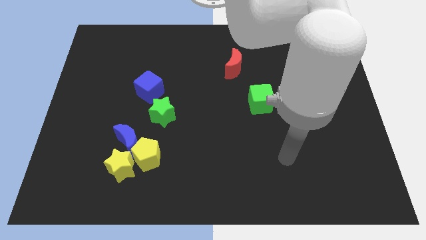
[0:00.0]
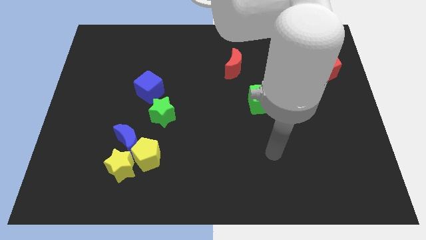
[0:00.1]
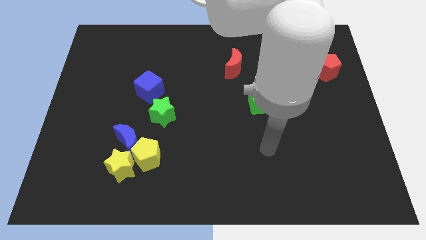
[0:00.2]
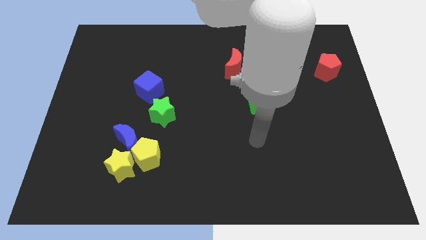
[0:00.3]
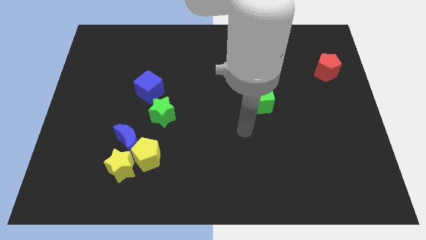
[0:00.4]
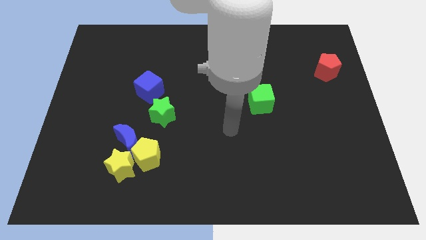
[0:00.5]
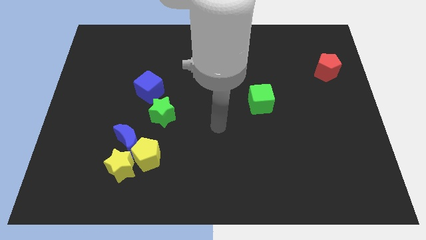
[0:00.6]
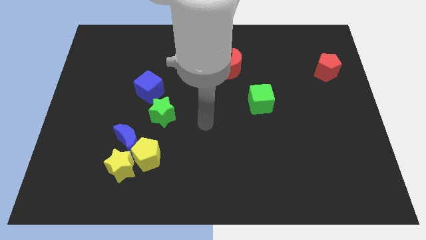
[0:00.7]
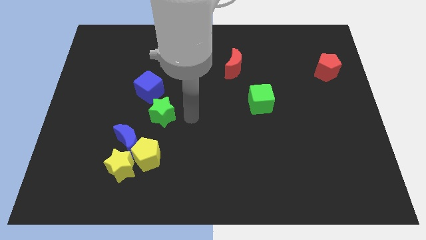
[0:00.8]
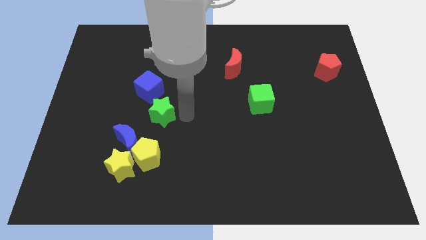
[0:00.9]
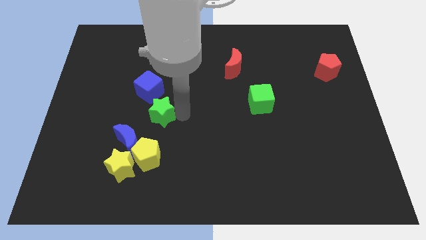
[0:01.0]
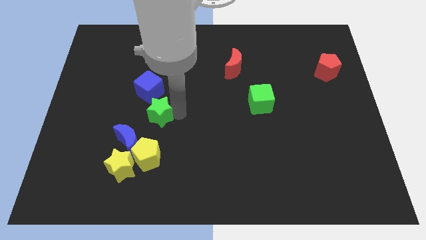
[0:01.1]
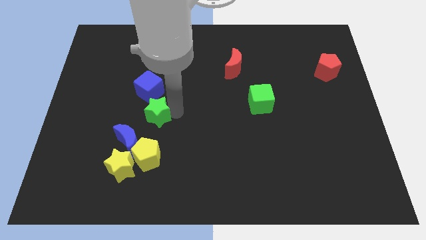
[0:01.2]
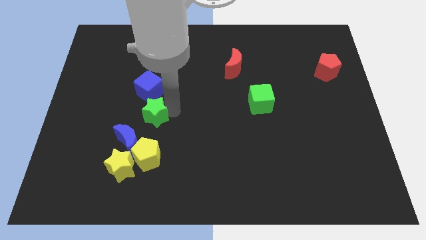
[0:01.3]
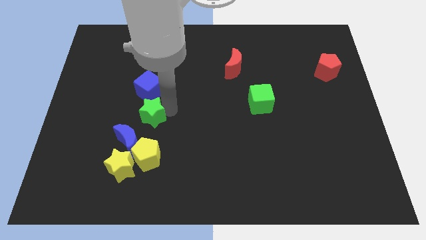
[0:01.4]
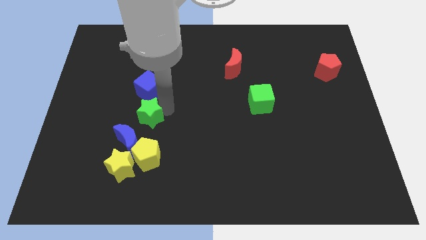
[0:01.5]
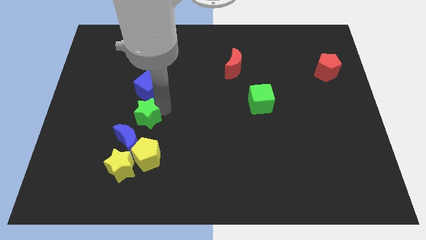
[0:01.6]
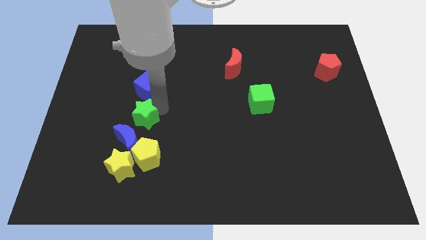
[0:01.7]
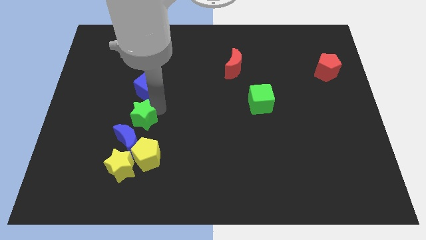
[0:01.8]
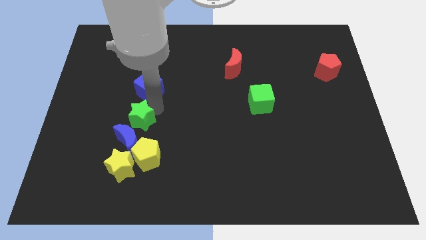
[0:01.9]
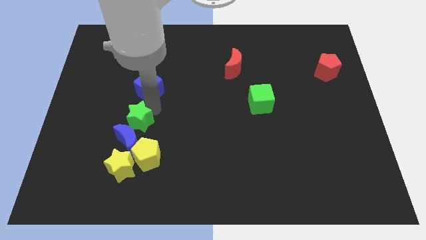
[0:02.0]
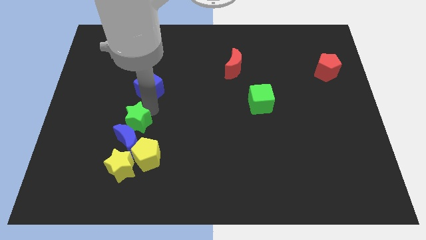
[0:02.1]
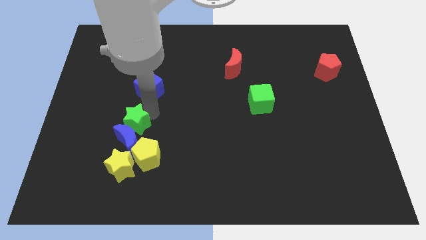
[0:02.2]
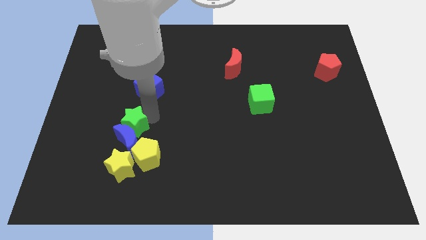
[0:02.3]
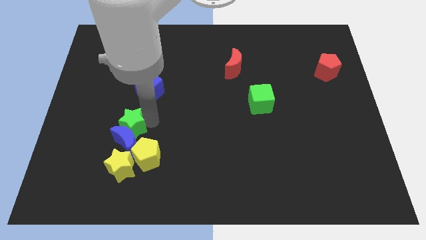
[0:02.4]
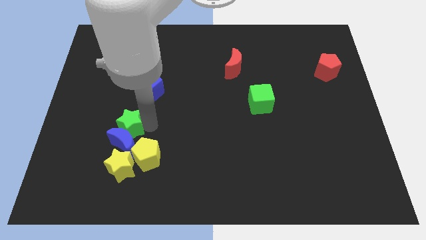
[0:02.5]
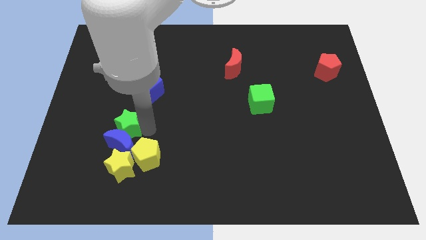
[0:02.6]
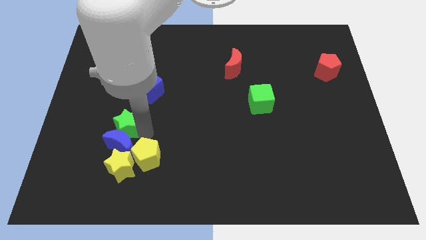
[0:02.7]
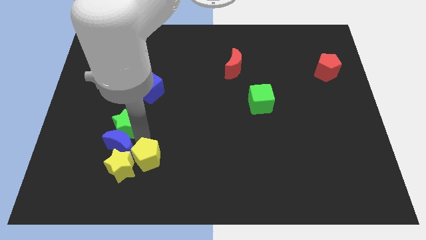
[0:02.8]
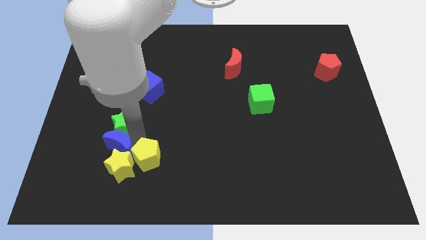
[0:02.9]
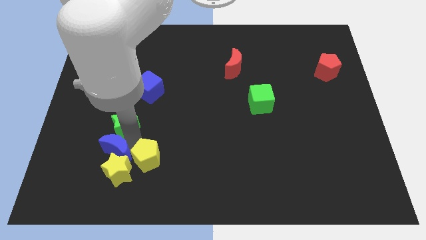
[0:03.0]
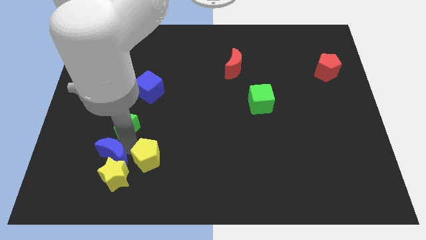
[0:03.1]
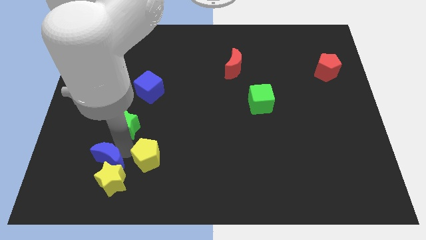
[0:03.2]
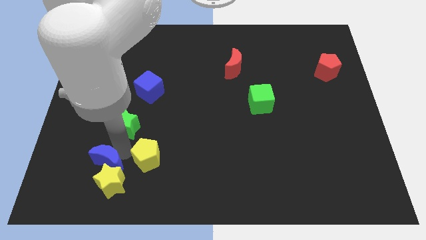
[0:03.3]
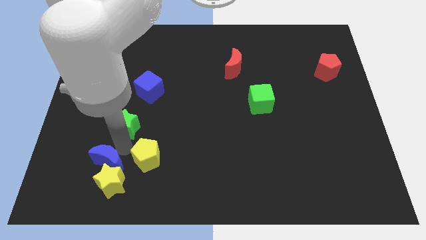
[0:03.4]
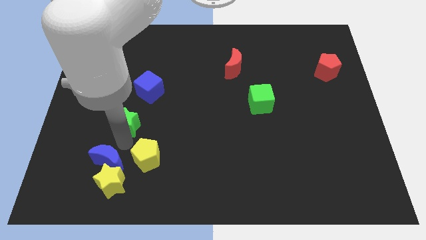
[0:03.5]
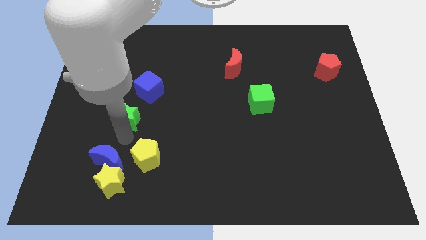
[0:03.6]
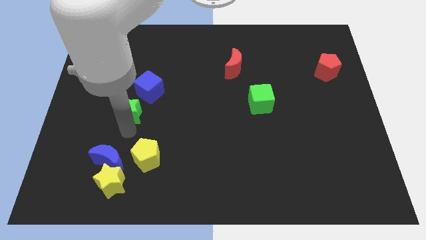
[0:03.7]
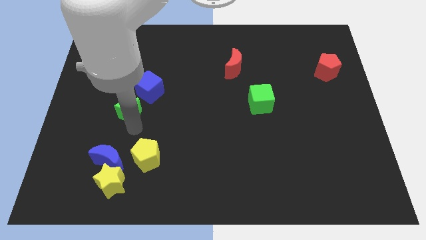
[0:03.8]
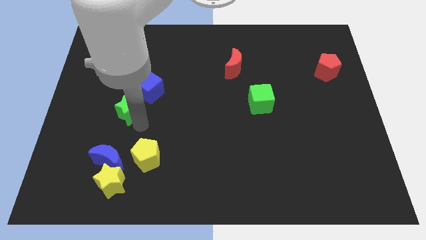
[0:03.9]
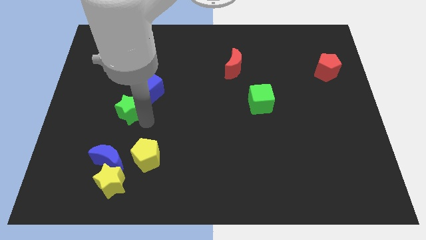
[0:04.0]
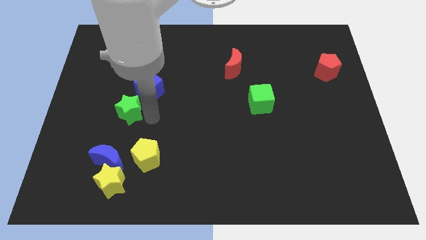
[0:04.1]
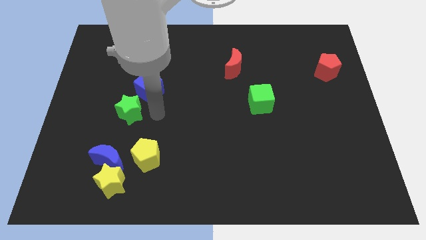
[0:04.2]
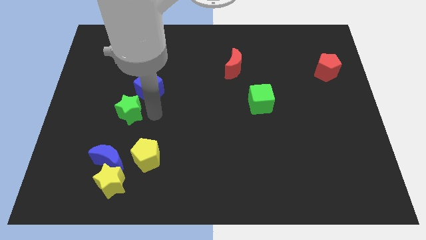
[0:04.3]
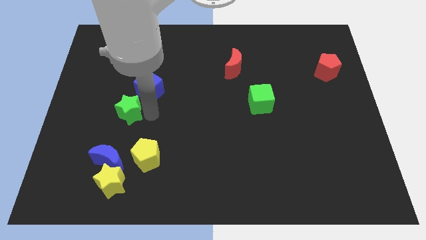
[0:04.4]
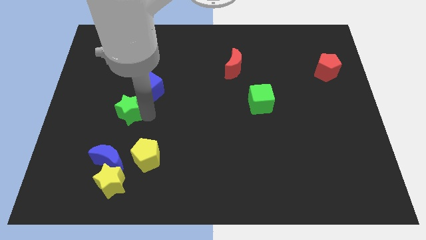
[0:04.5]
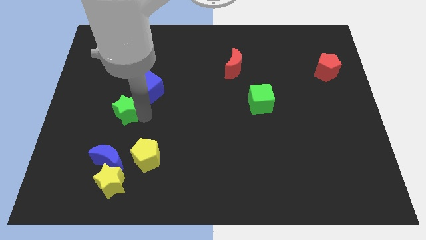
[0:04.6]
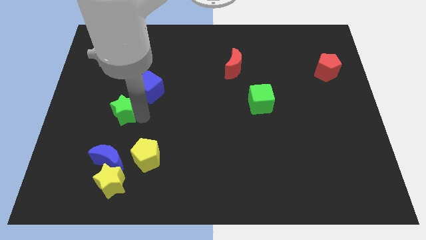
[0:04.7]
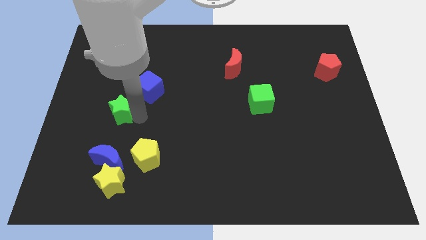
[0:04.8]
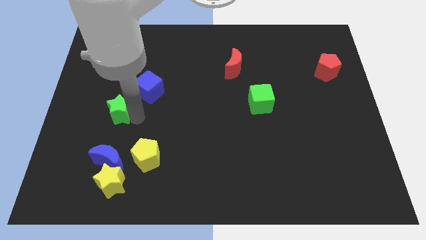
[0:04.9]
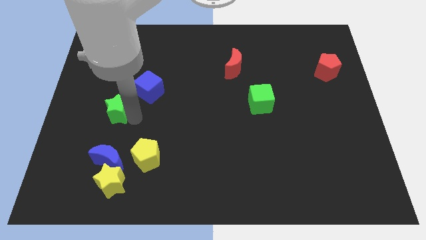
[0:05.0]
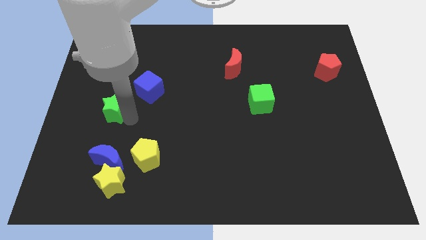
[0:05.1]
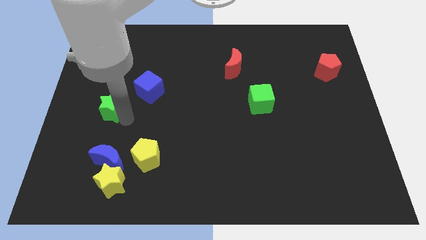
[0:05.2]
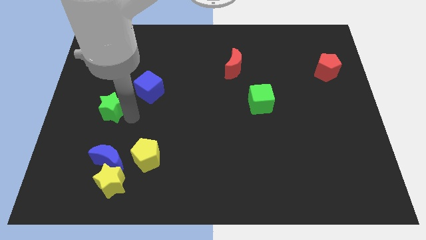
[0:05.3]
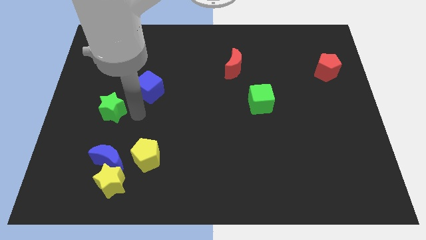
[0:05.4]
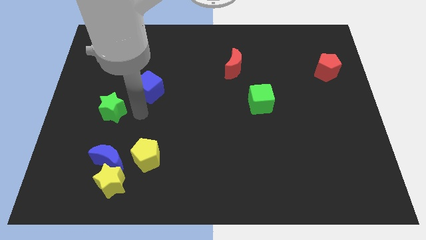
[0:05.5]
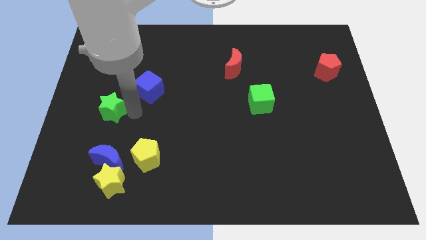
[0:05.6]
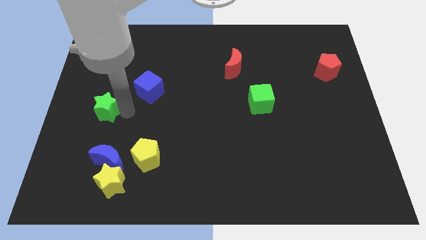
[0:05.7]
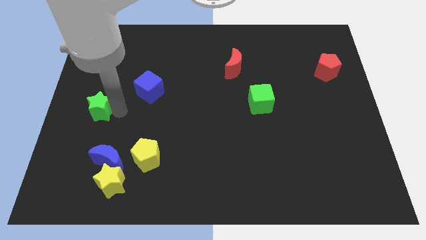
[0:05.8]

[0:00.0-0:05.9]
push the green star to the center left

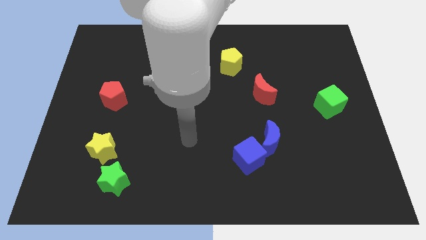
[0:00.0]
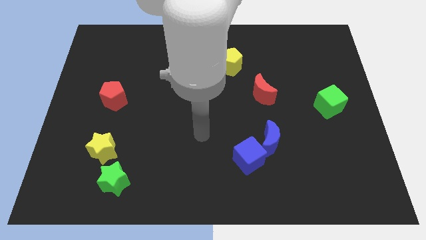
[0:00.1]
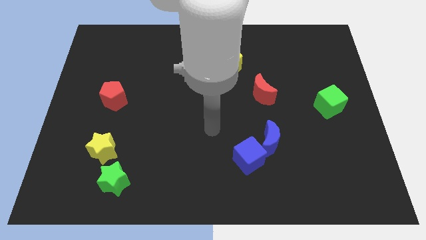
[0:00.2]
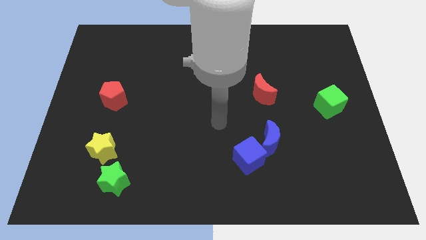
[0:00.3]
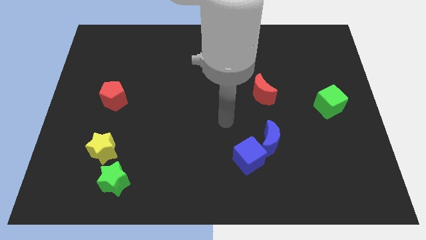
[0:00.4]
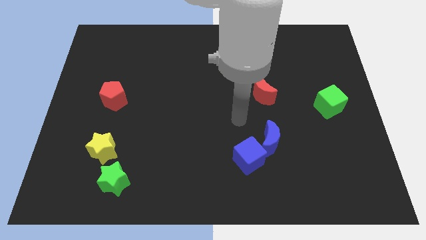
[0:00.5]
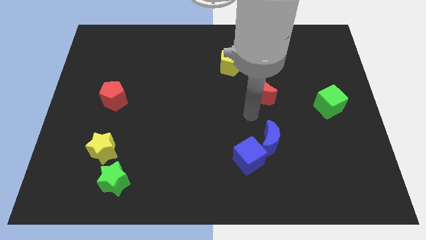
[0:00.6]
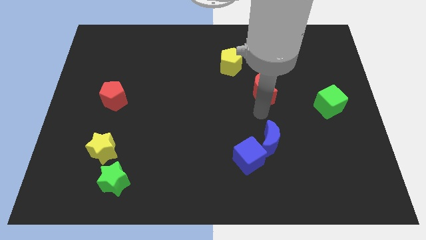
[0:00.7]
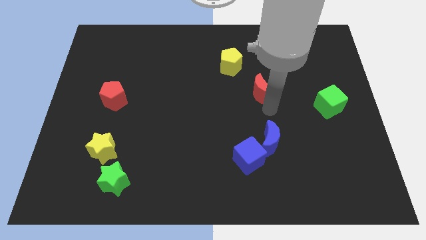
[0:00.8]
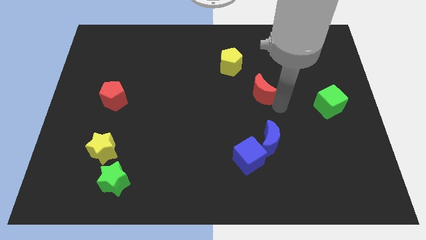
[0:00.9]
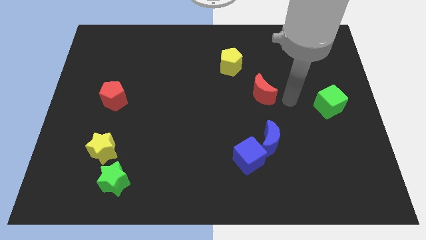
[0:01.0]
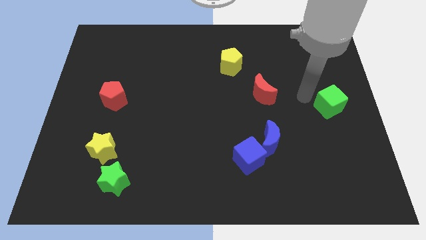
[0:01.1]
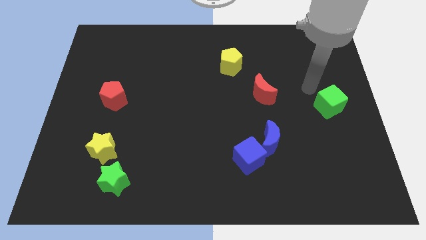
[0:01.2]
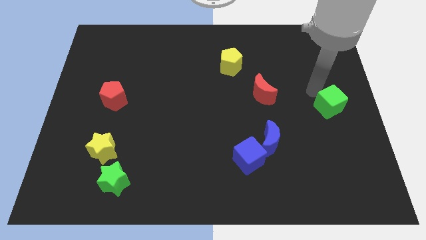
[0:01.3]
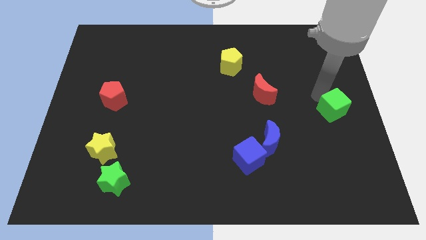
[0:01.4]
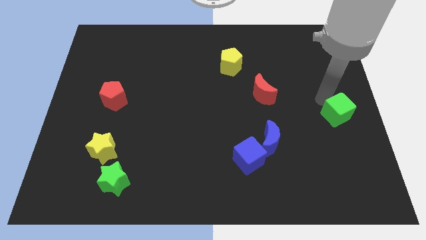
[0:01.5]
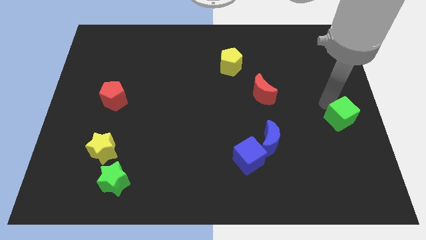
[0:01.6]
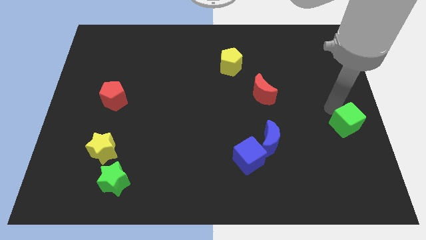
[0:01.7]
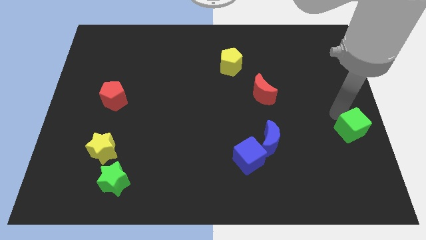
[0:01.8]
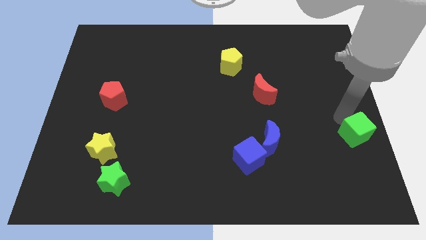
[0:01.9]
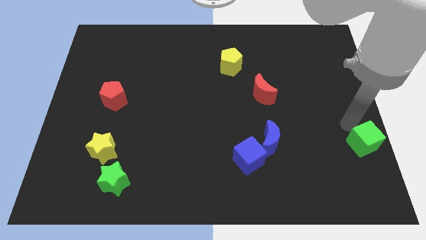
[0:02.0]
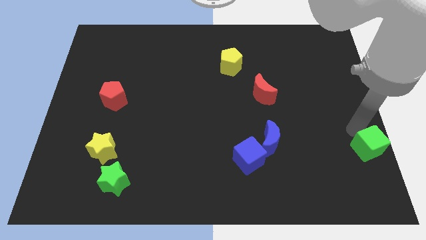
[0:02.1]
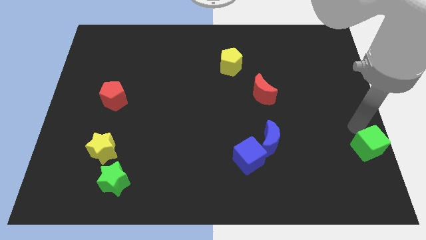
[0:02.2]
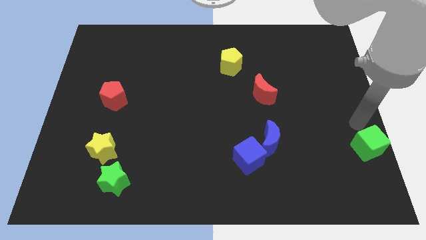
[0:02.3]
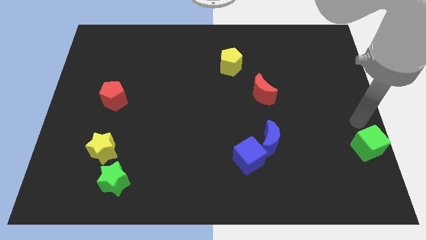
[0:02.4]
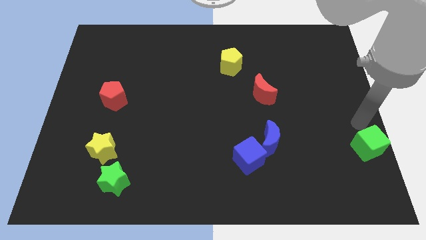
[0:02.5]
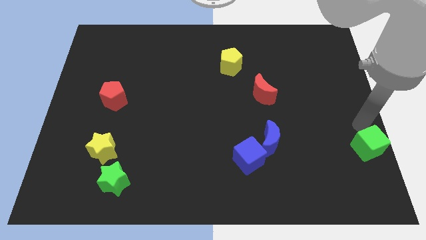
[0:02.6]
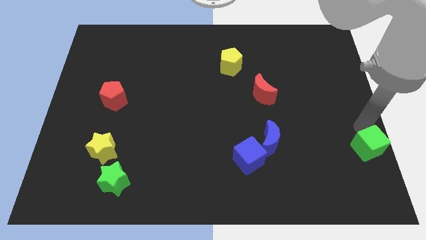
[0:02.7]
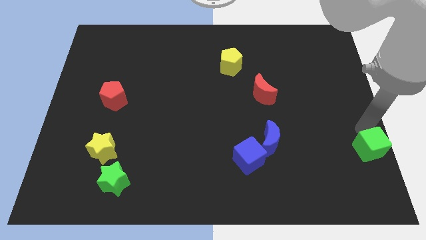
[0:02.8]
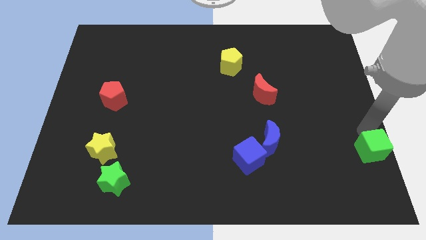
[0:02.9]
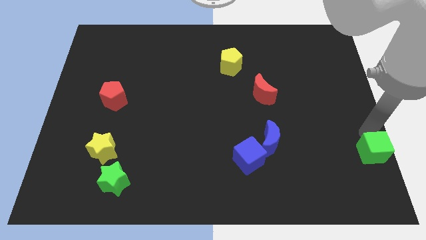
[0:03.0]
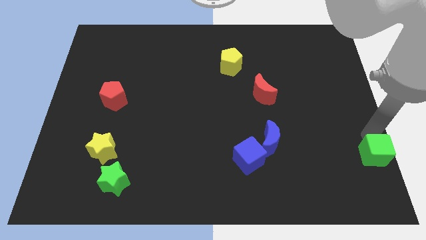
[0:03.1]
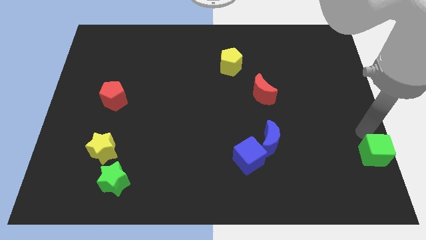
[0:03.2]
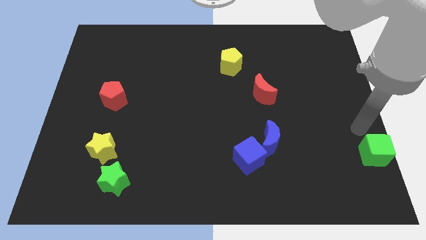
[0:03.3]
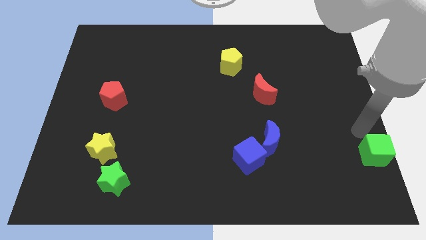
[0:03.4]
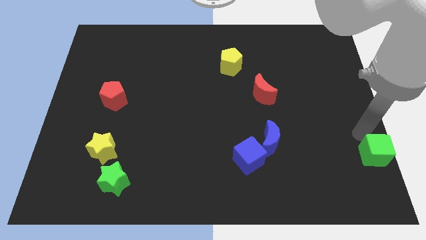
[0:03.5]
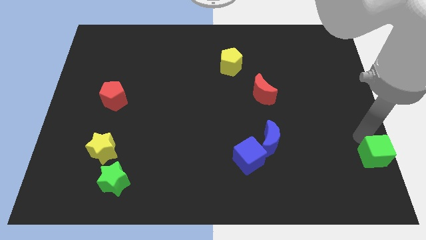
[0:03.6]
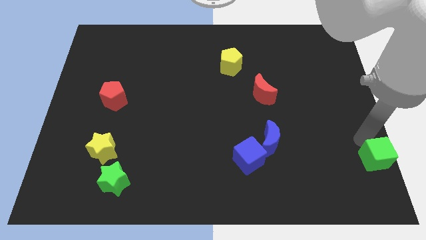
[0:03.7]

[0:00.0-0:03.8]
move the green cube to the bottom right
